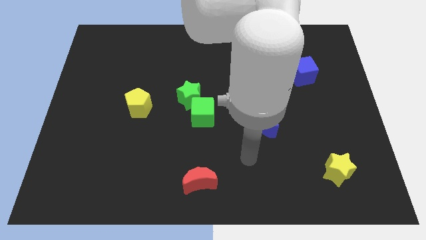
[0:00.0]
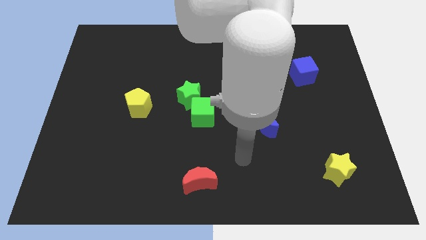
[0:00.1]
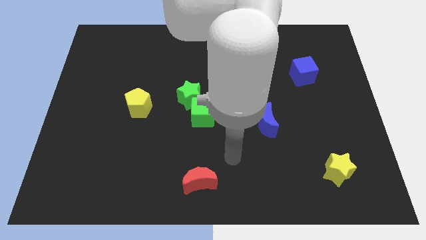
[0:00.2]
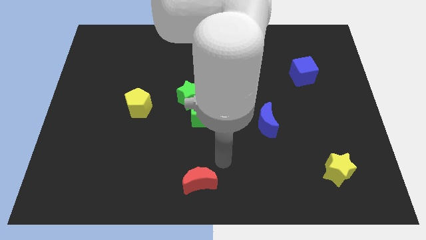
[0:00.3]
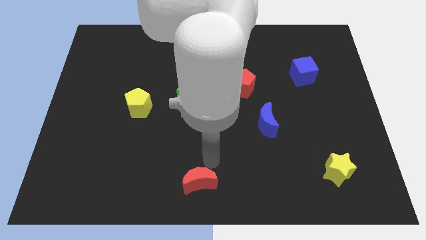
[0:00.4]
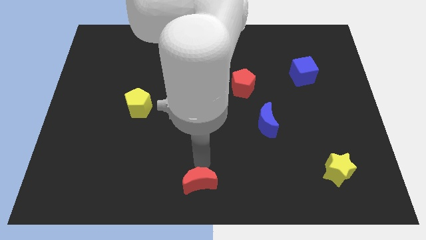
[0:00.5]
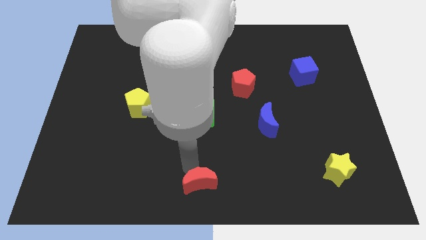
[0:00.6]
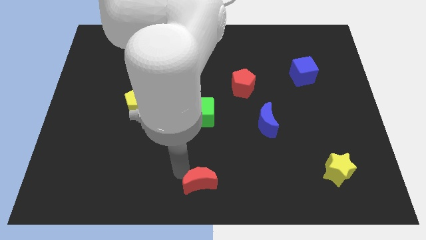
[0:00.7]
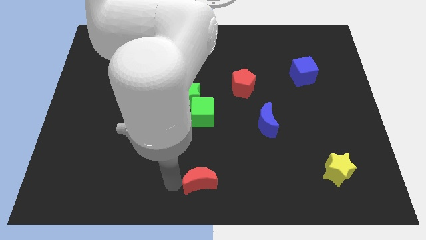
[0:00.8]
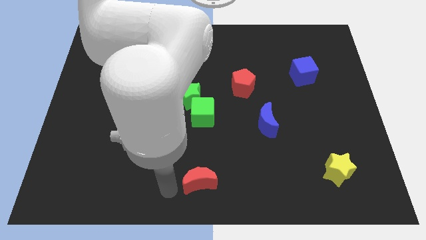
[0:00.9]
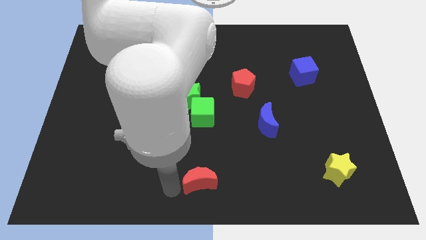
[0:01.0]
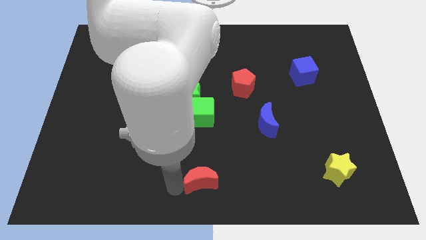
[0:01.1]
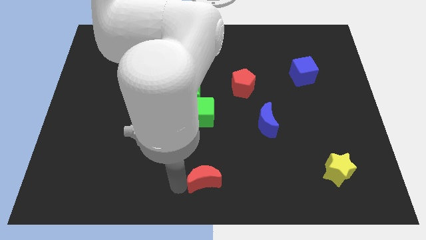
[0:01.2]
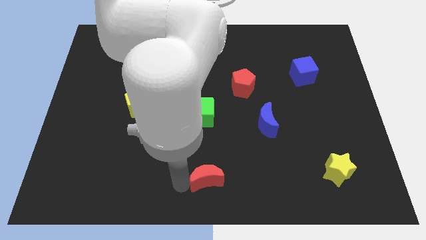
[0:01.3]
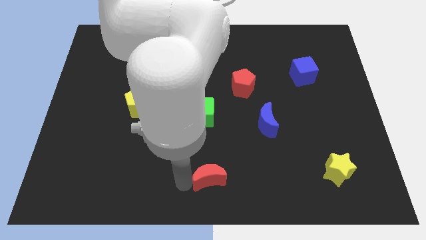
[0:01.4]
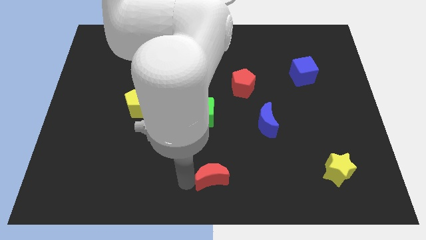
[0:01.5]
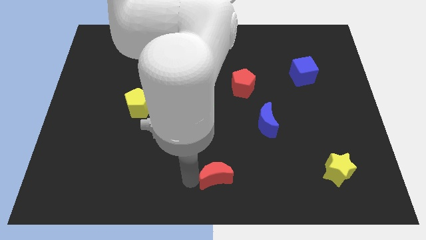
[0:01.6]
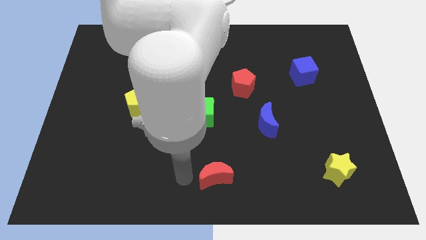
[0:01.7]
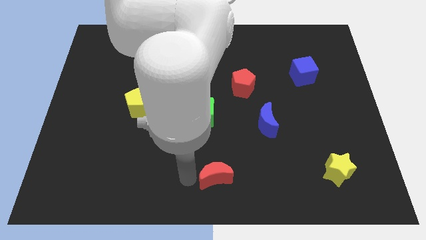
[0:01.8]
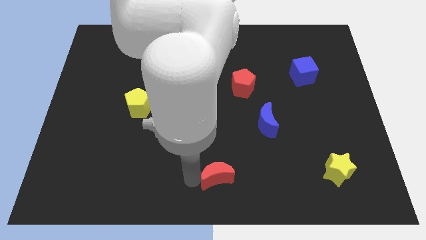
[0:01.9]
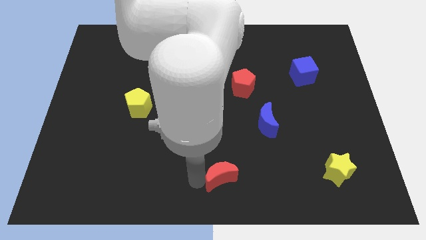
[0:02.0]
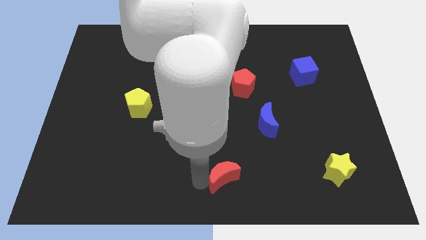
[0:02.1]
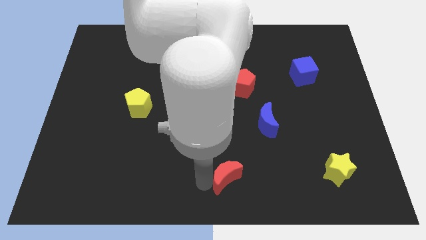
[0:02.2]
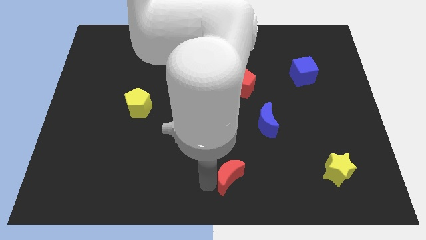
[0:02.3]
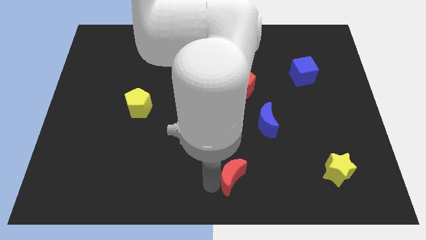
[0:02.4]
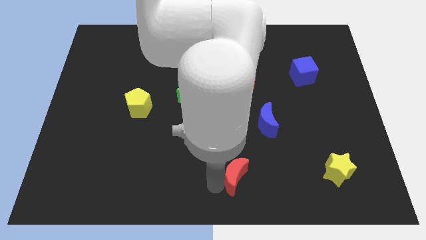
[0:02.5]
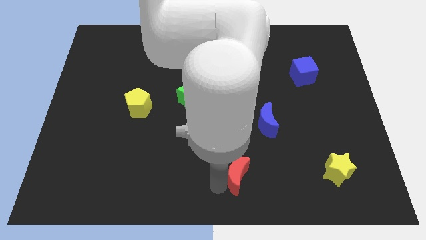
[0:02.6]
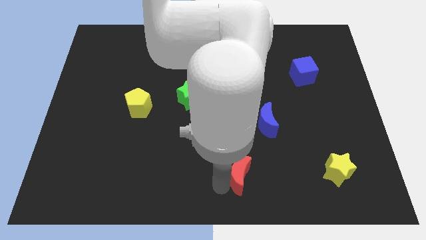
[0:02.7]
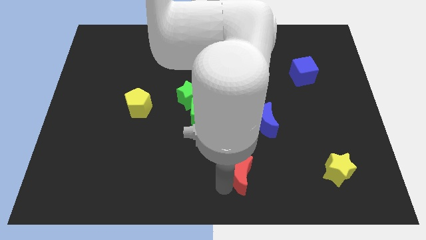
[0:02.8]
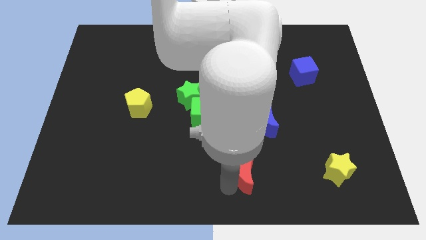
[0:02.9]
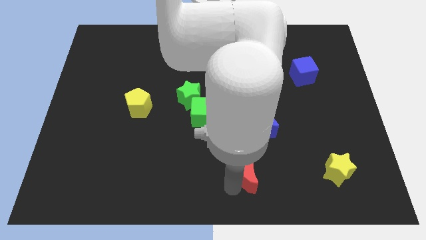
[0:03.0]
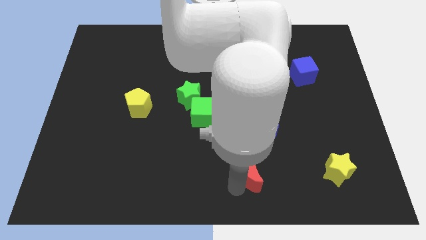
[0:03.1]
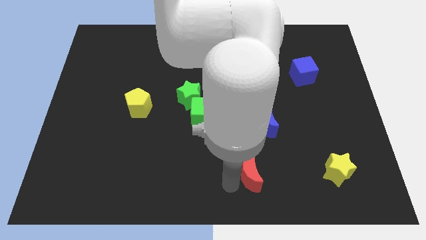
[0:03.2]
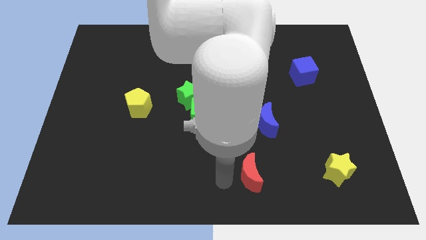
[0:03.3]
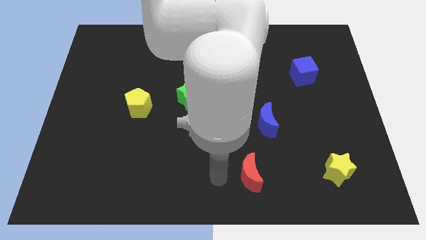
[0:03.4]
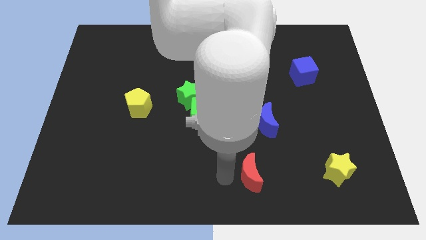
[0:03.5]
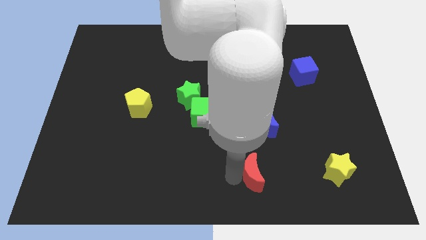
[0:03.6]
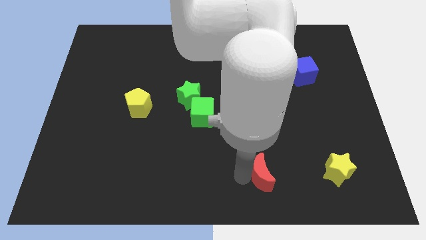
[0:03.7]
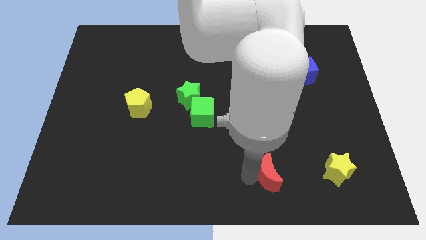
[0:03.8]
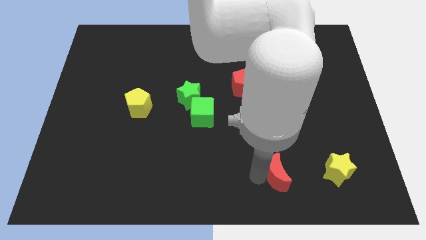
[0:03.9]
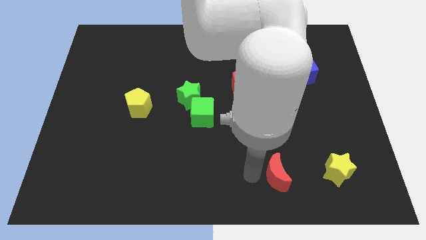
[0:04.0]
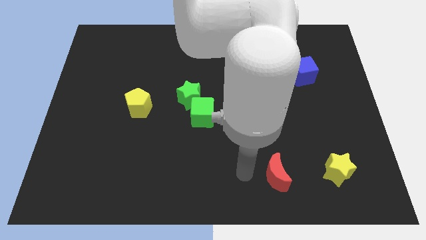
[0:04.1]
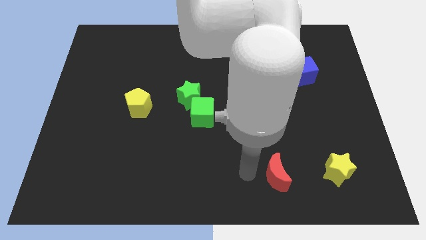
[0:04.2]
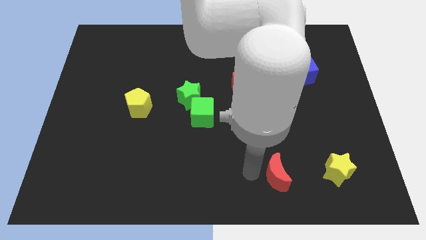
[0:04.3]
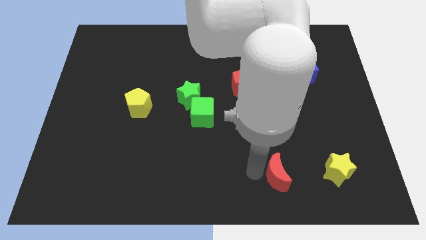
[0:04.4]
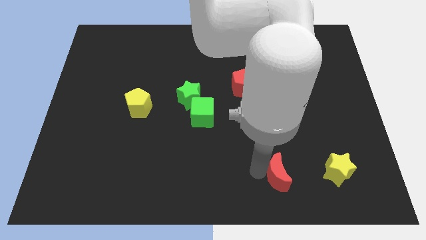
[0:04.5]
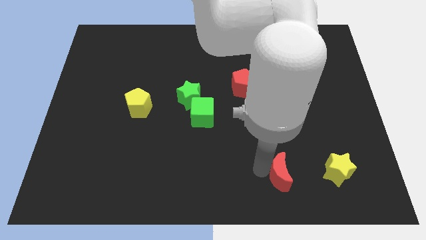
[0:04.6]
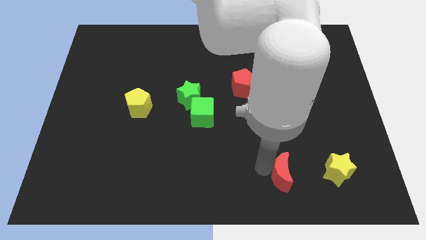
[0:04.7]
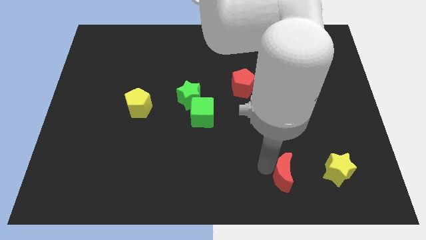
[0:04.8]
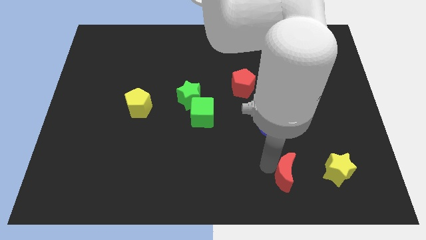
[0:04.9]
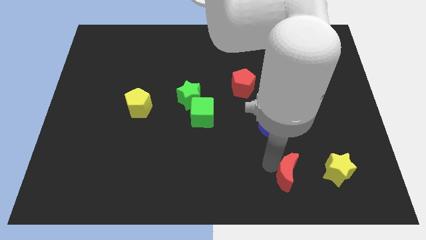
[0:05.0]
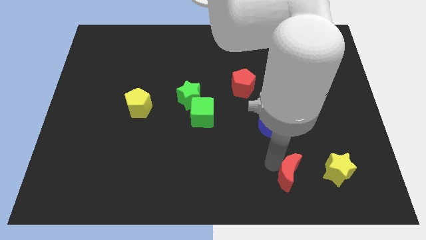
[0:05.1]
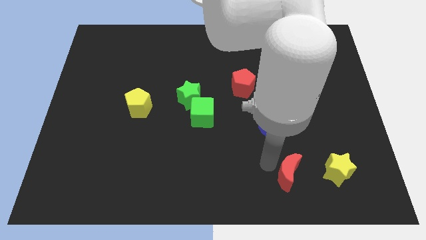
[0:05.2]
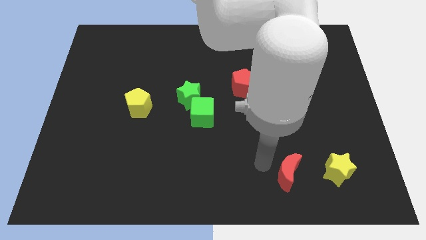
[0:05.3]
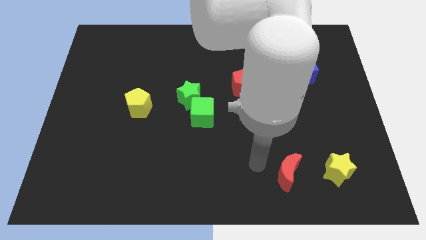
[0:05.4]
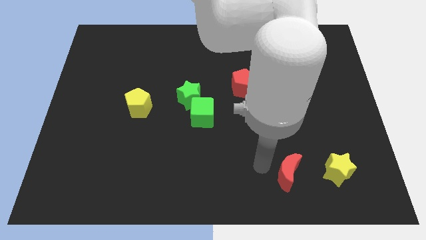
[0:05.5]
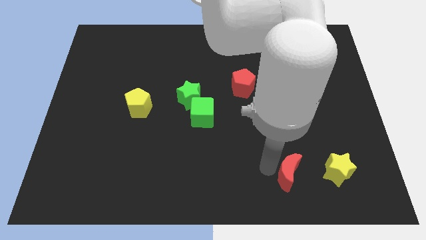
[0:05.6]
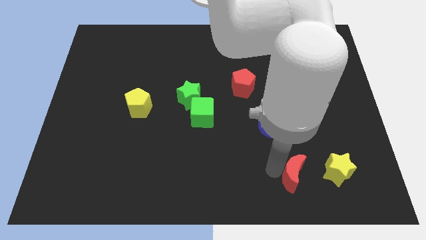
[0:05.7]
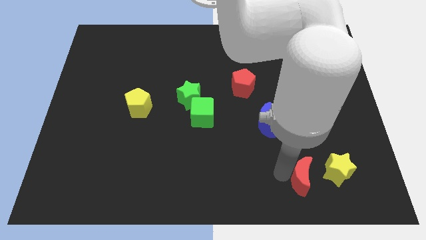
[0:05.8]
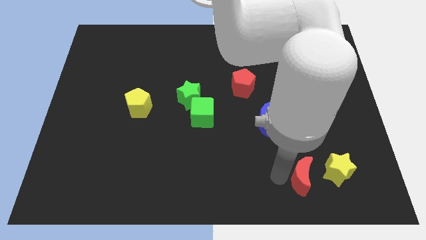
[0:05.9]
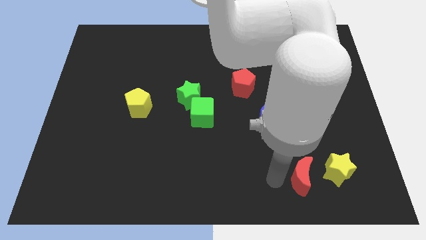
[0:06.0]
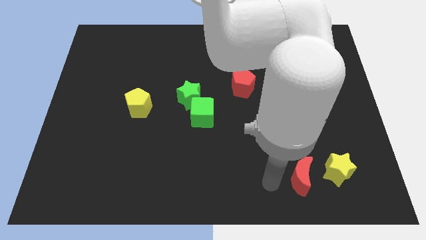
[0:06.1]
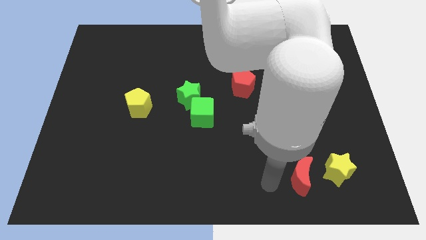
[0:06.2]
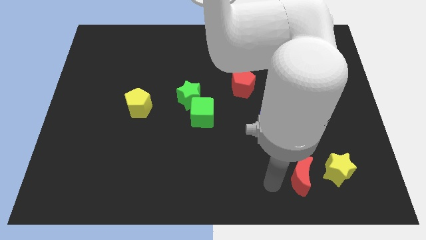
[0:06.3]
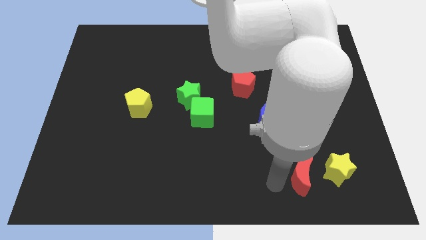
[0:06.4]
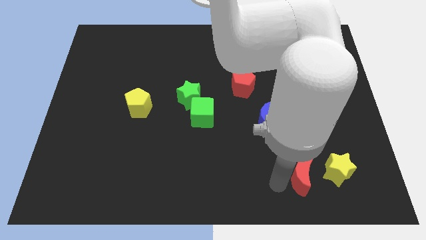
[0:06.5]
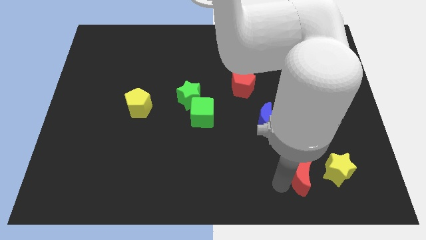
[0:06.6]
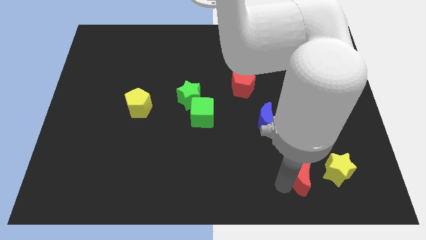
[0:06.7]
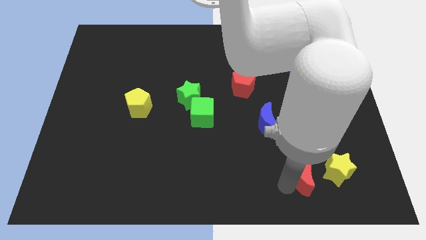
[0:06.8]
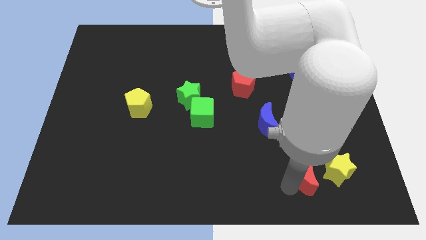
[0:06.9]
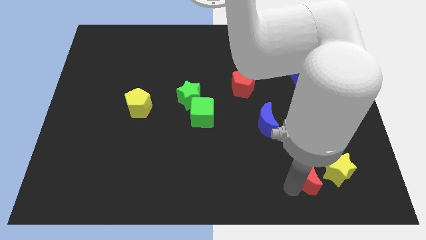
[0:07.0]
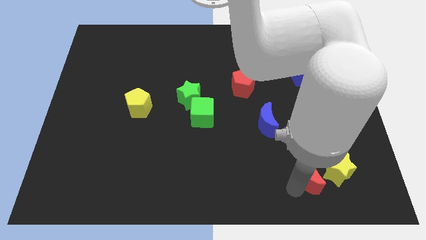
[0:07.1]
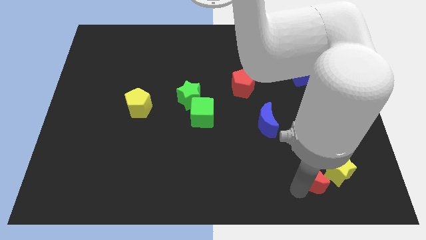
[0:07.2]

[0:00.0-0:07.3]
push the red moon towards the yellow star

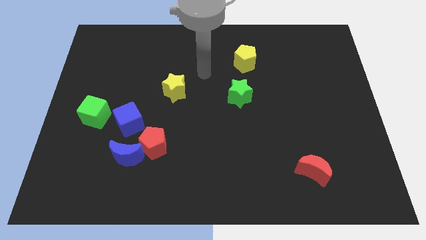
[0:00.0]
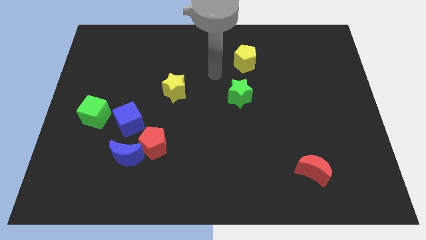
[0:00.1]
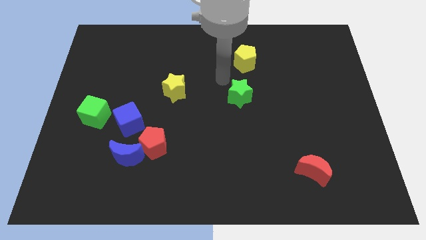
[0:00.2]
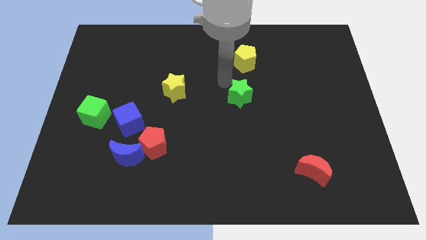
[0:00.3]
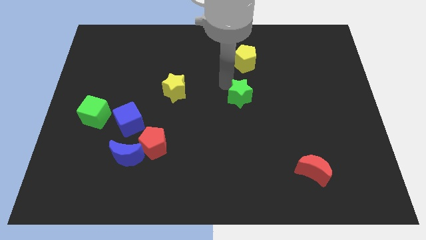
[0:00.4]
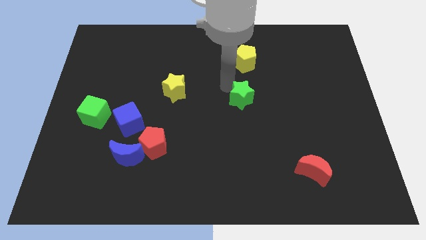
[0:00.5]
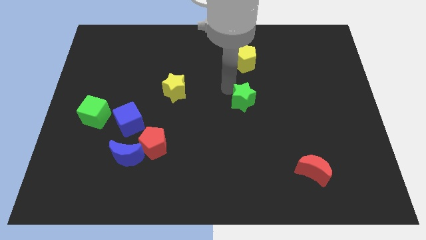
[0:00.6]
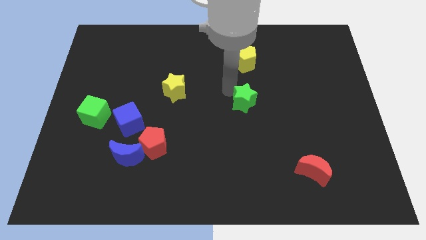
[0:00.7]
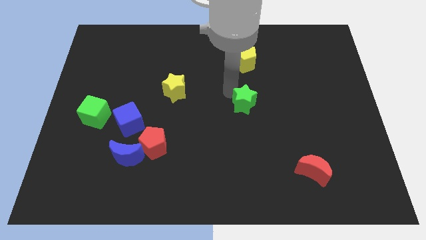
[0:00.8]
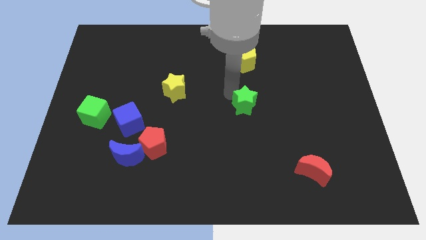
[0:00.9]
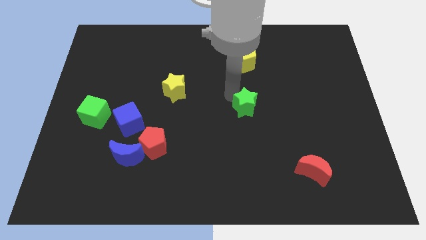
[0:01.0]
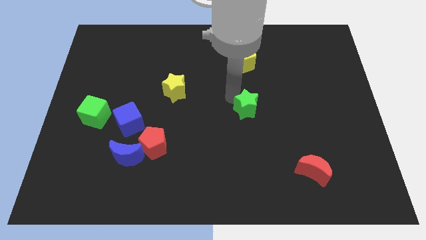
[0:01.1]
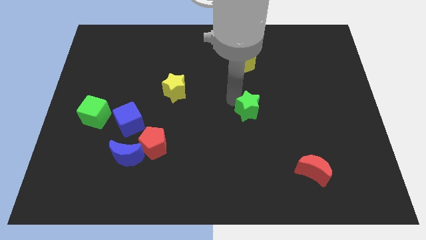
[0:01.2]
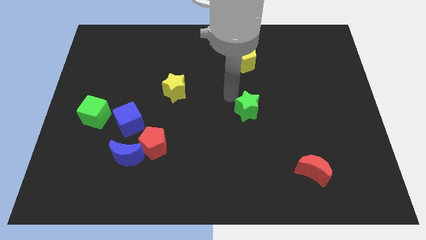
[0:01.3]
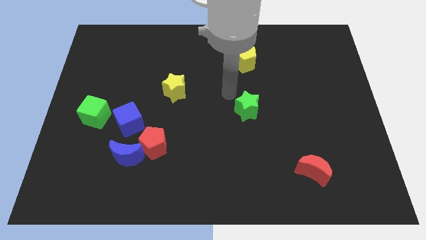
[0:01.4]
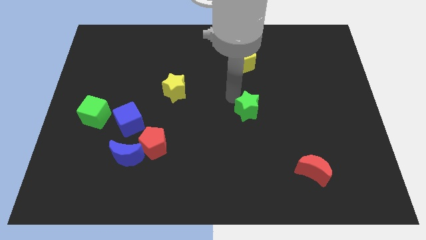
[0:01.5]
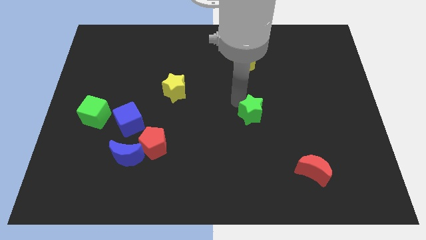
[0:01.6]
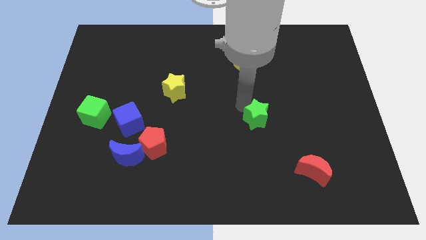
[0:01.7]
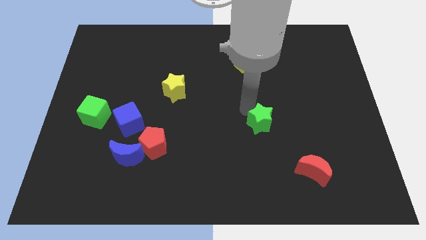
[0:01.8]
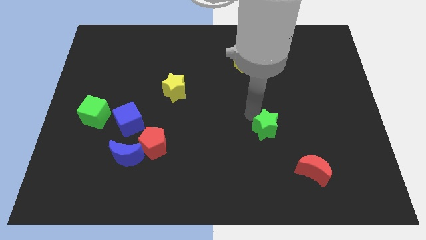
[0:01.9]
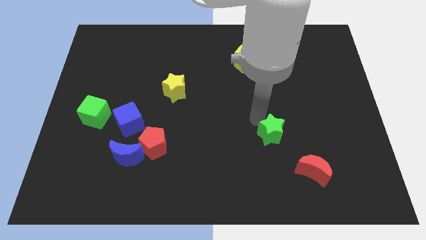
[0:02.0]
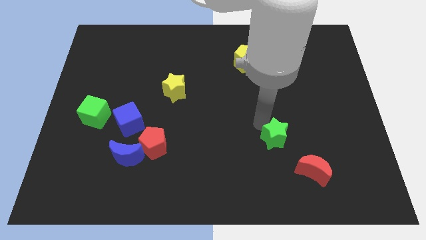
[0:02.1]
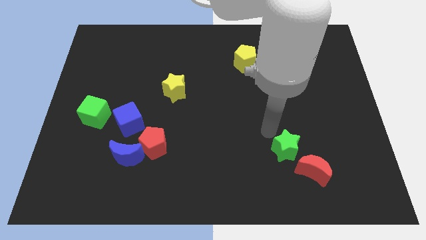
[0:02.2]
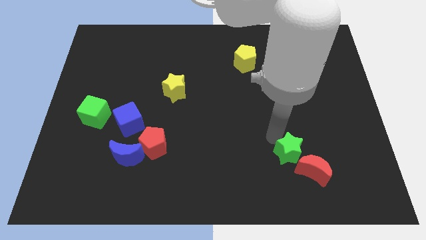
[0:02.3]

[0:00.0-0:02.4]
slide the green star towards the red moon
